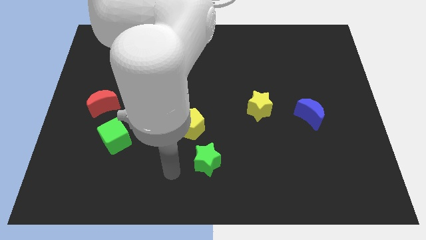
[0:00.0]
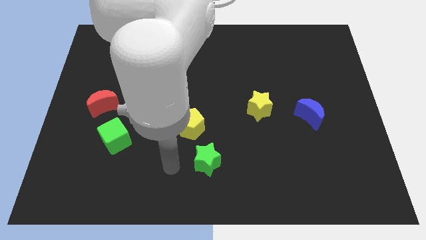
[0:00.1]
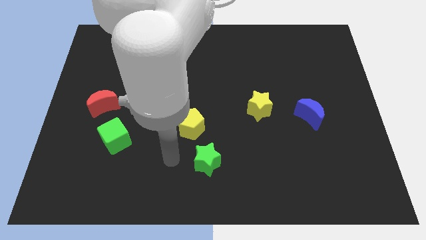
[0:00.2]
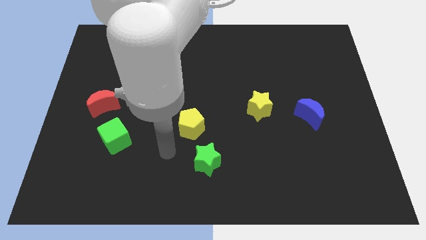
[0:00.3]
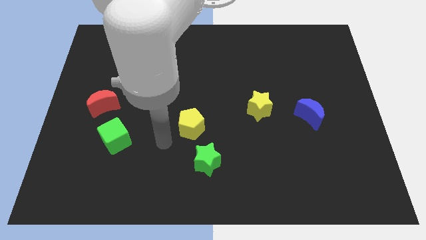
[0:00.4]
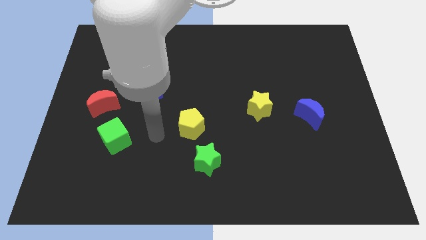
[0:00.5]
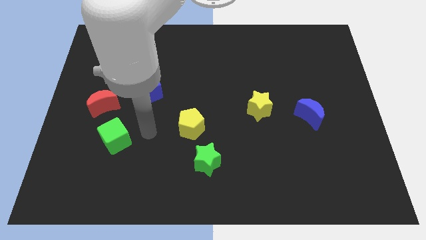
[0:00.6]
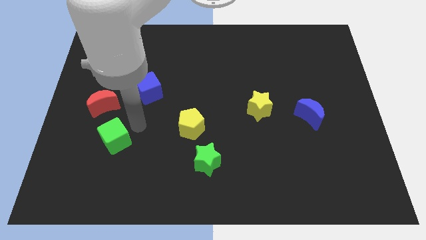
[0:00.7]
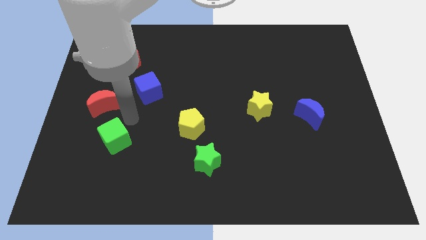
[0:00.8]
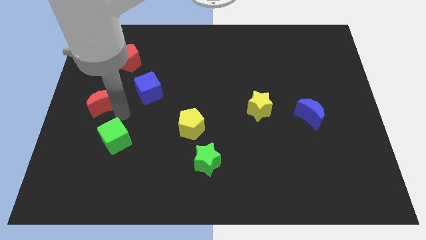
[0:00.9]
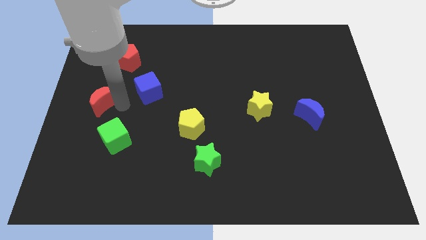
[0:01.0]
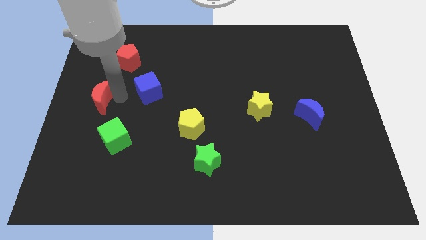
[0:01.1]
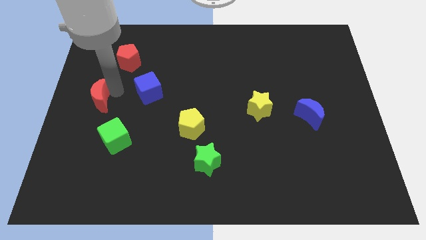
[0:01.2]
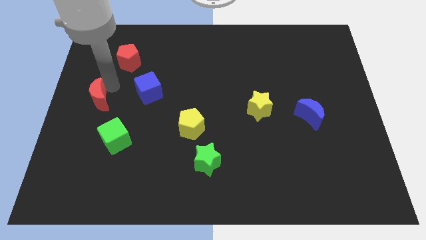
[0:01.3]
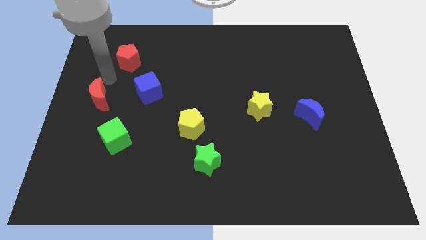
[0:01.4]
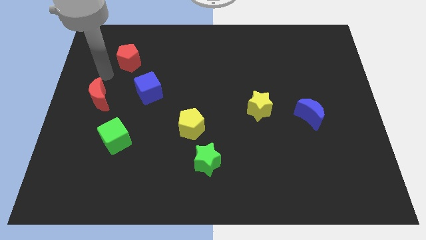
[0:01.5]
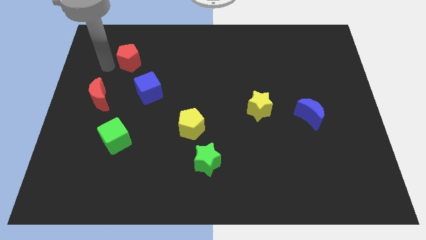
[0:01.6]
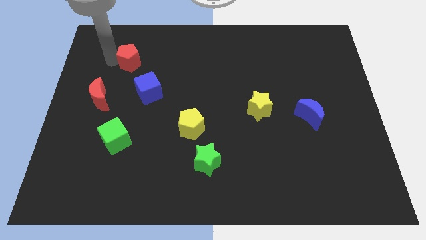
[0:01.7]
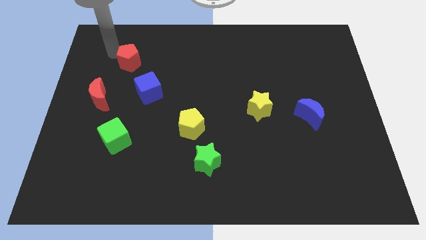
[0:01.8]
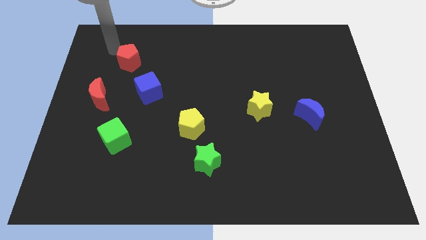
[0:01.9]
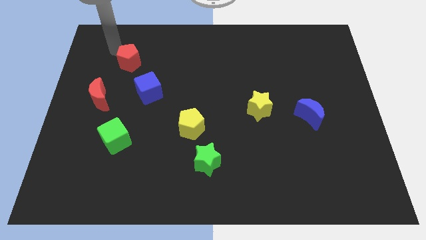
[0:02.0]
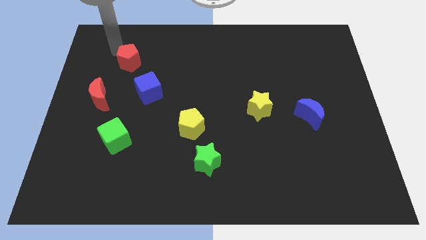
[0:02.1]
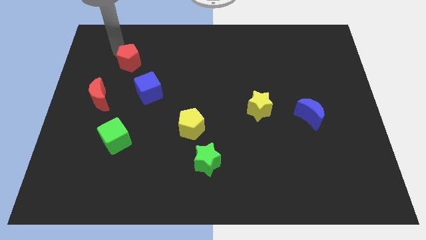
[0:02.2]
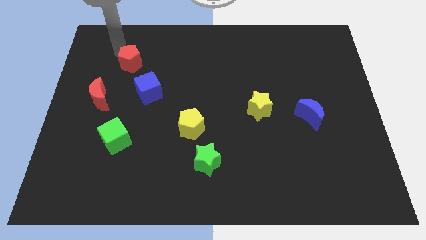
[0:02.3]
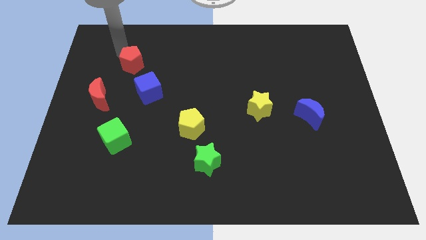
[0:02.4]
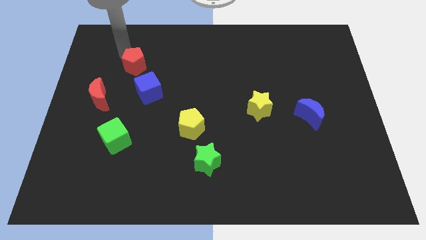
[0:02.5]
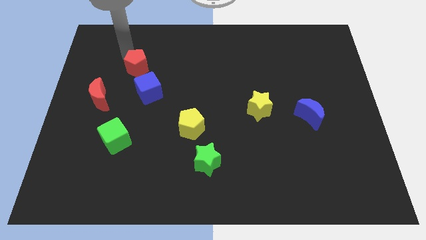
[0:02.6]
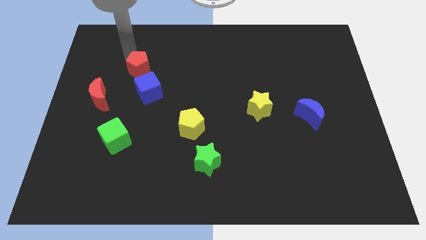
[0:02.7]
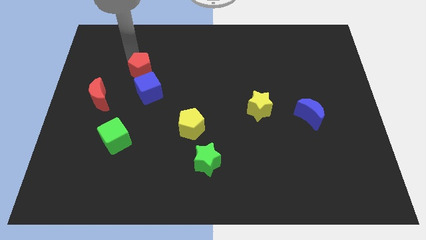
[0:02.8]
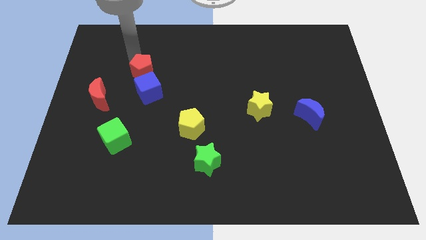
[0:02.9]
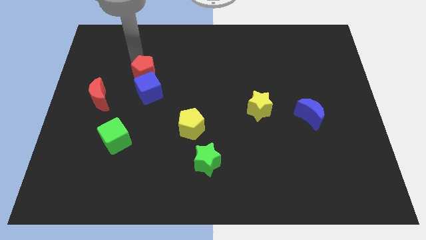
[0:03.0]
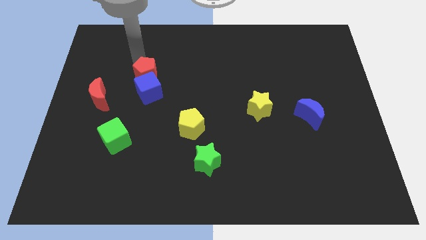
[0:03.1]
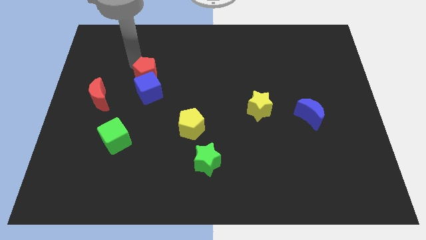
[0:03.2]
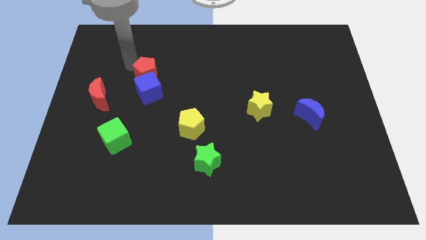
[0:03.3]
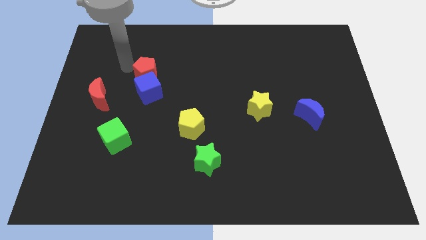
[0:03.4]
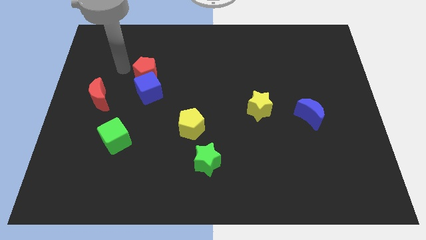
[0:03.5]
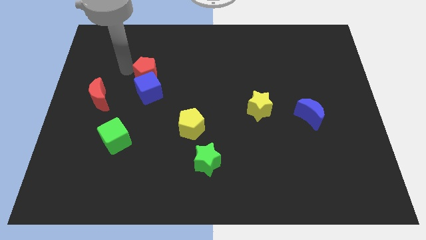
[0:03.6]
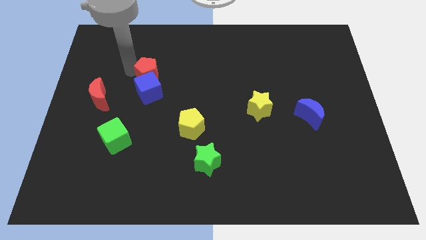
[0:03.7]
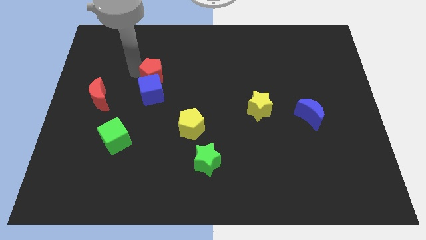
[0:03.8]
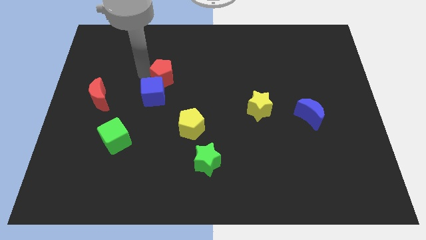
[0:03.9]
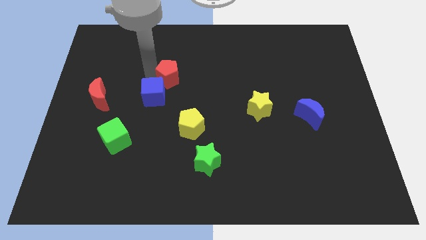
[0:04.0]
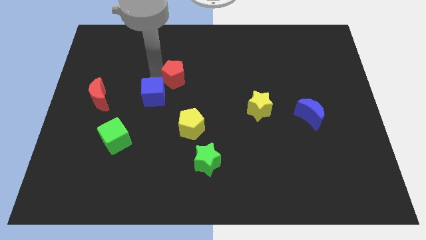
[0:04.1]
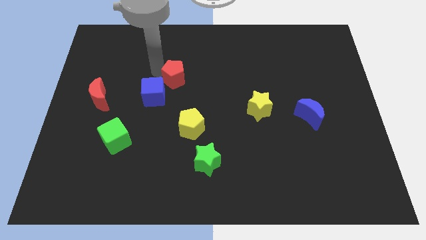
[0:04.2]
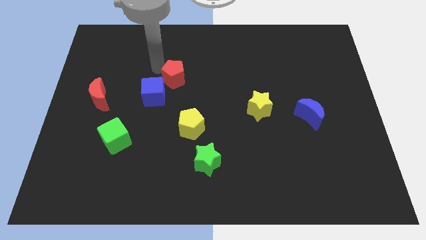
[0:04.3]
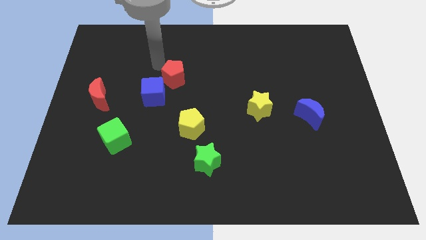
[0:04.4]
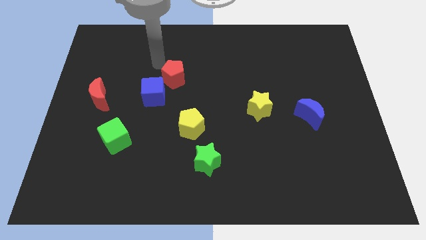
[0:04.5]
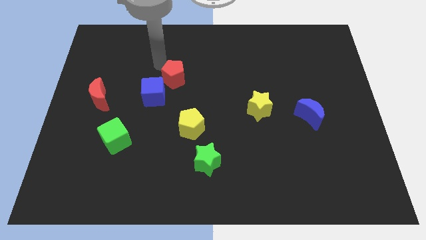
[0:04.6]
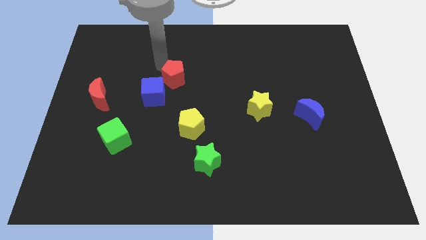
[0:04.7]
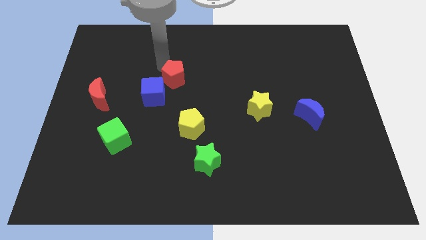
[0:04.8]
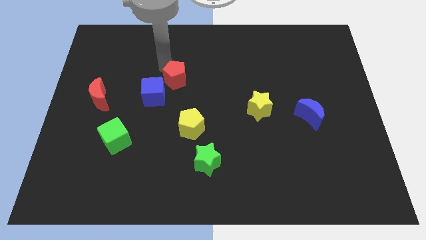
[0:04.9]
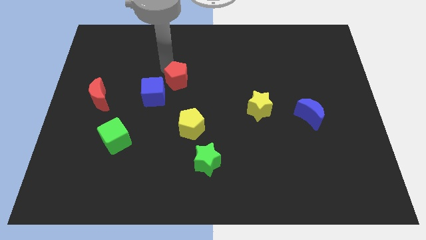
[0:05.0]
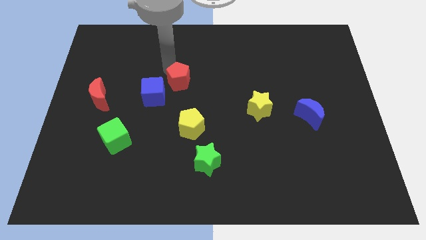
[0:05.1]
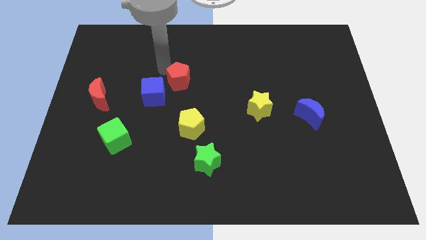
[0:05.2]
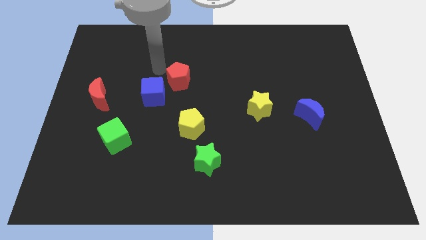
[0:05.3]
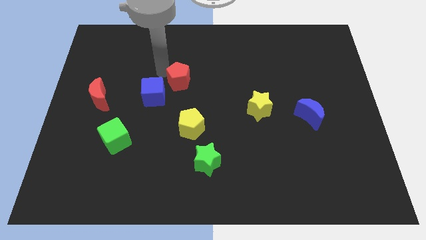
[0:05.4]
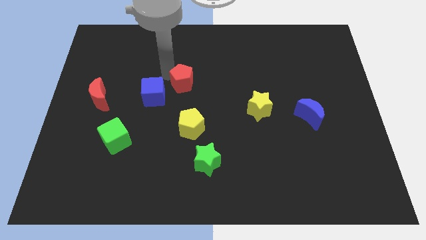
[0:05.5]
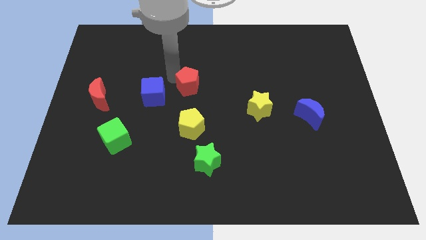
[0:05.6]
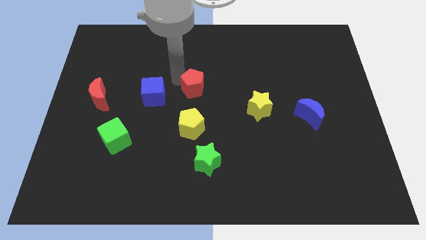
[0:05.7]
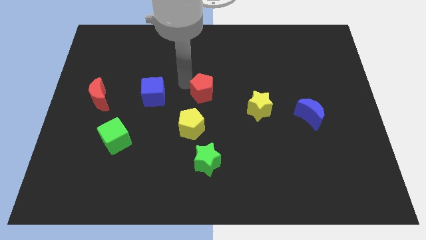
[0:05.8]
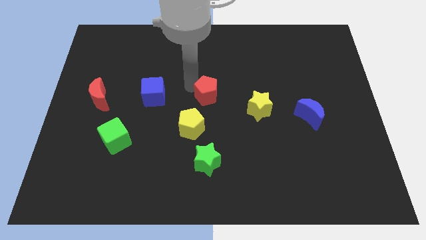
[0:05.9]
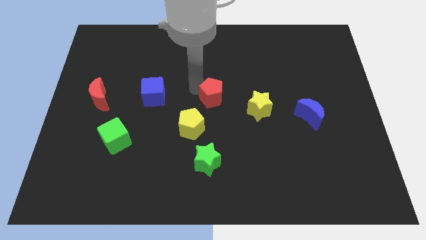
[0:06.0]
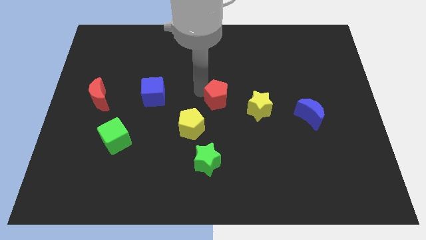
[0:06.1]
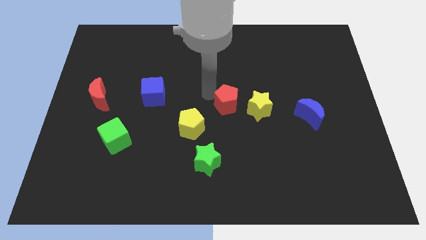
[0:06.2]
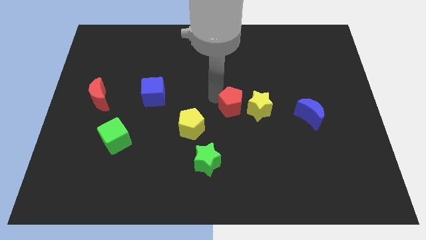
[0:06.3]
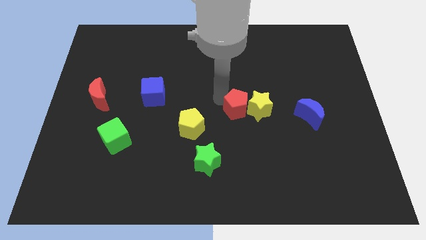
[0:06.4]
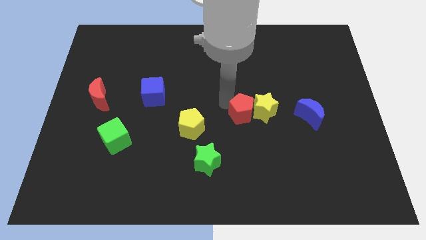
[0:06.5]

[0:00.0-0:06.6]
push the red pentagon to the left side of the blue moon
